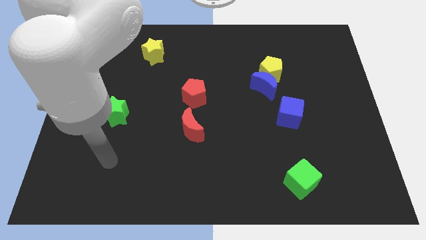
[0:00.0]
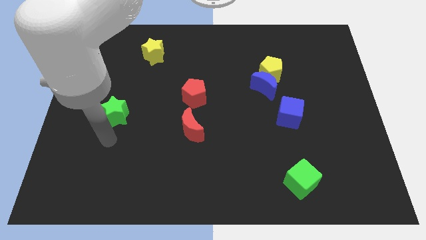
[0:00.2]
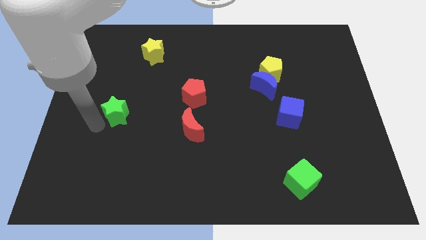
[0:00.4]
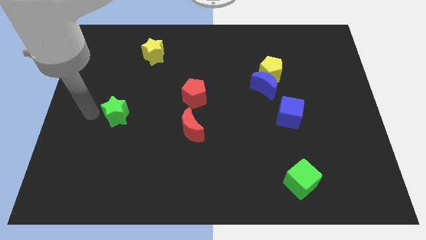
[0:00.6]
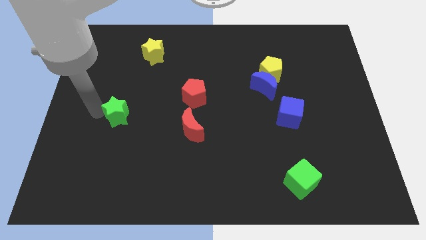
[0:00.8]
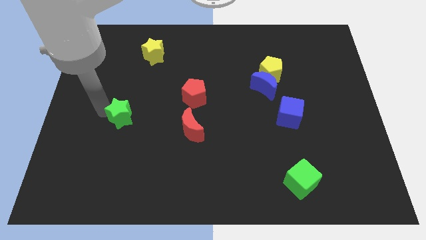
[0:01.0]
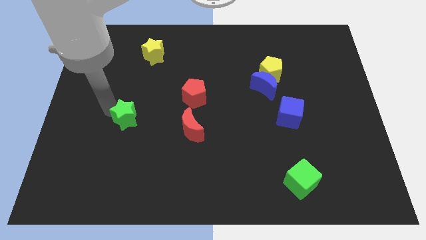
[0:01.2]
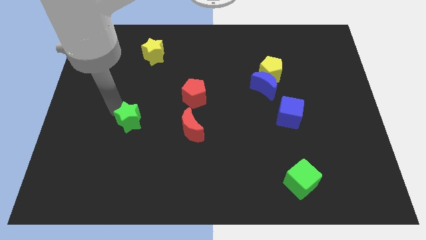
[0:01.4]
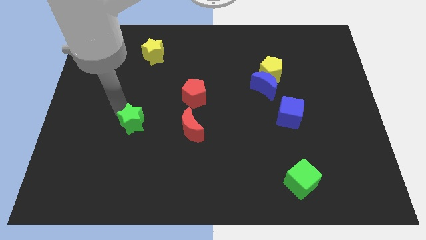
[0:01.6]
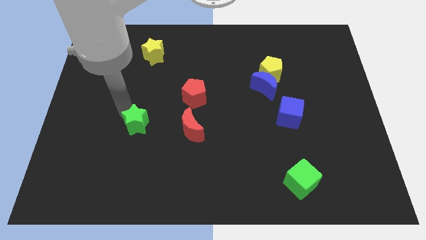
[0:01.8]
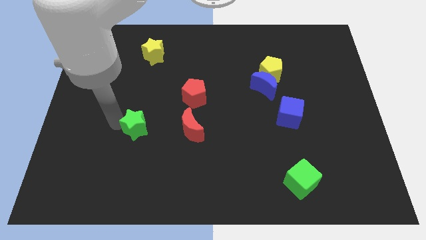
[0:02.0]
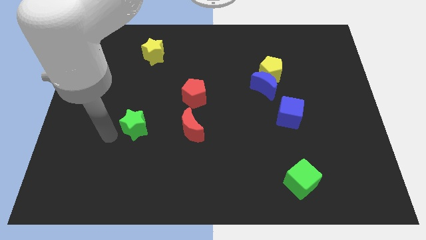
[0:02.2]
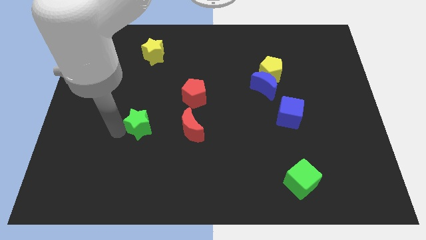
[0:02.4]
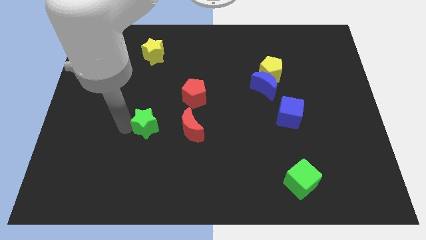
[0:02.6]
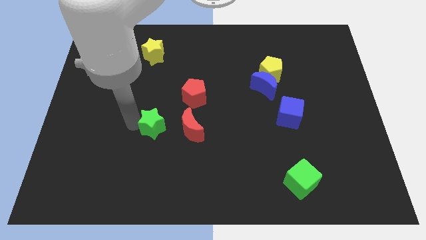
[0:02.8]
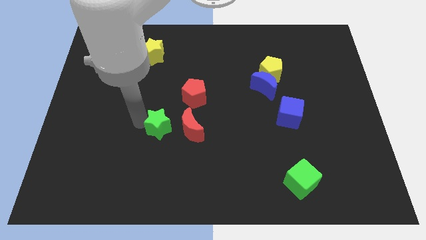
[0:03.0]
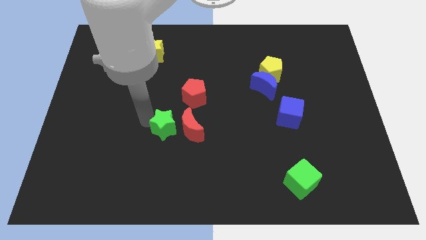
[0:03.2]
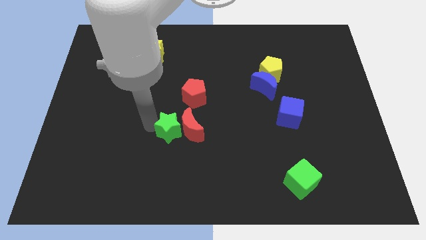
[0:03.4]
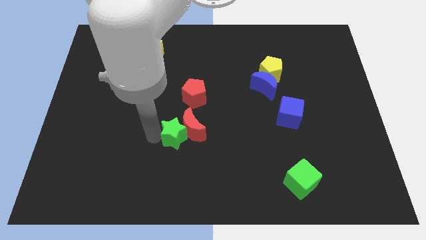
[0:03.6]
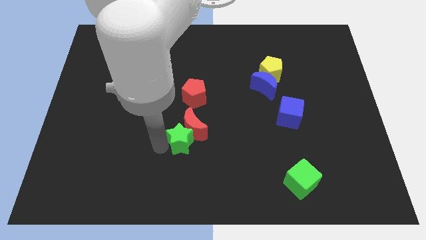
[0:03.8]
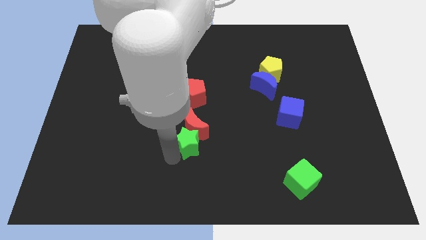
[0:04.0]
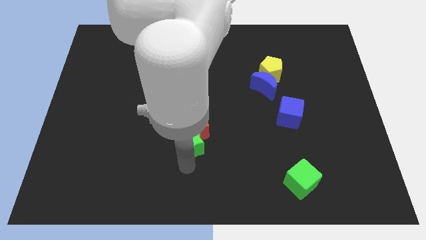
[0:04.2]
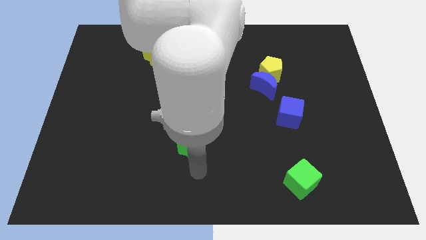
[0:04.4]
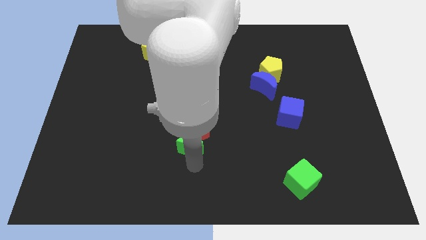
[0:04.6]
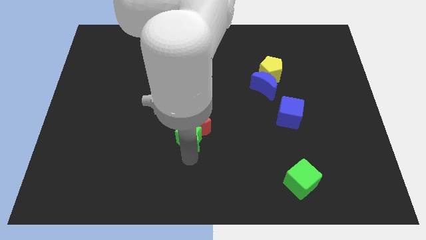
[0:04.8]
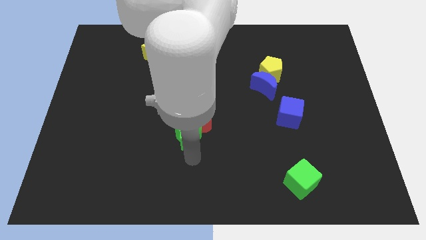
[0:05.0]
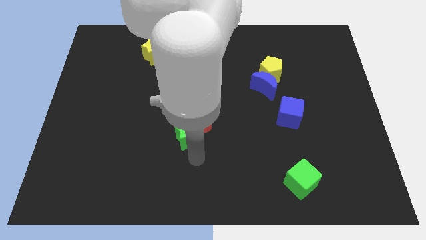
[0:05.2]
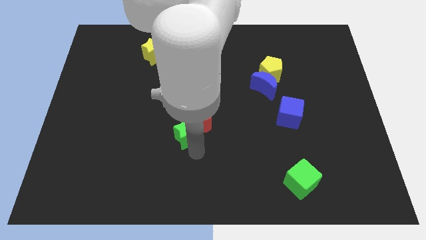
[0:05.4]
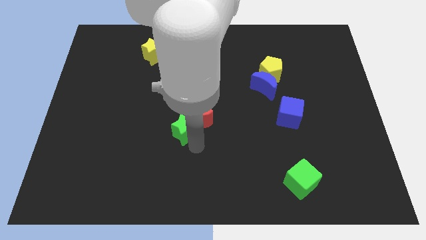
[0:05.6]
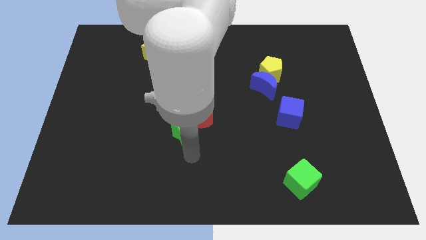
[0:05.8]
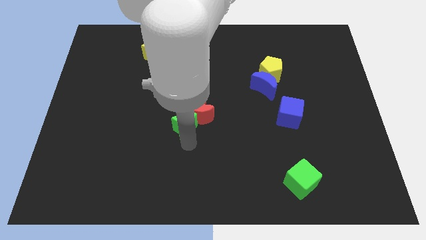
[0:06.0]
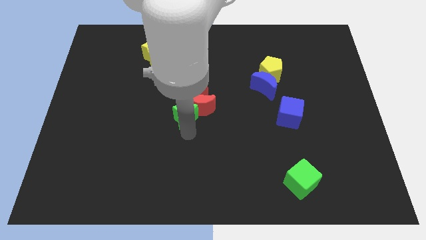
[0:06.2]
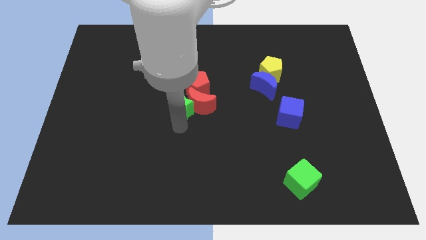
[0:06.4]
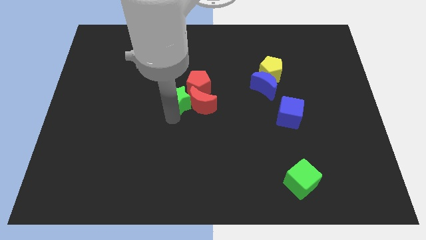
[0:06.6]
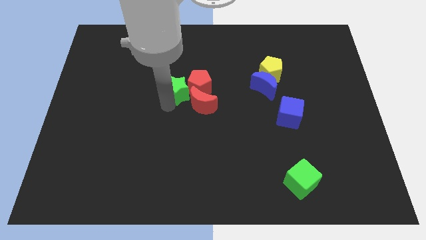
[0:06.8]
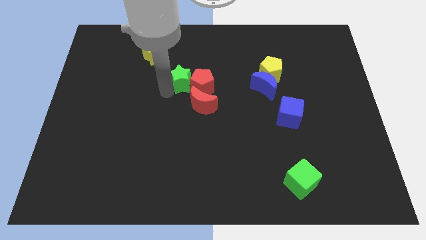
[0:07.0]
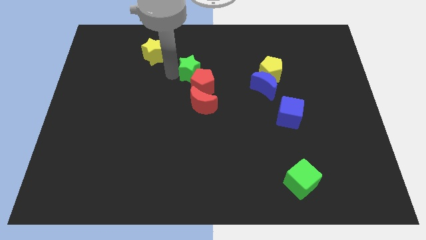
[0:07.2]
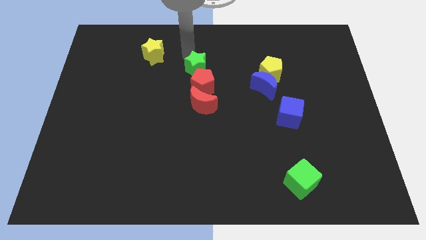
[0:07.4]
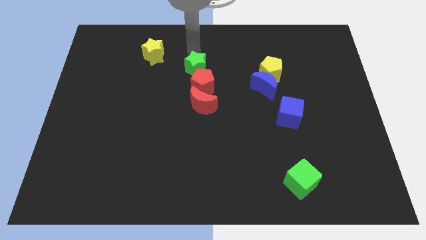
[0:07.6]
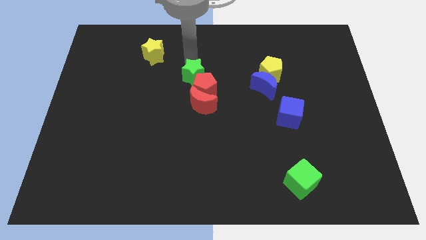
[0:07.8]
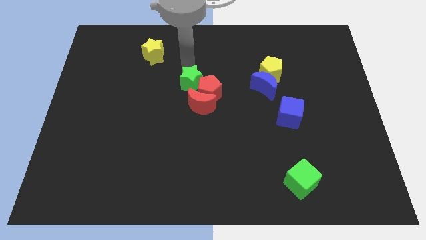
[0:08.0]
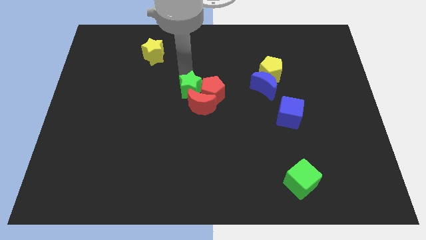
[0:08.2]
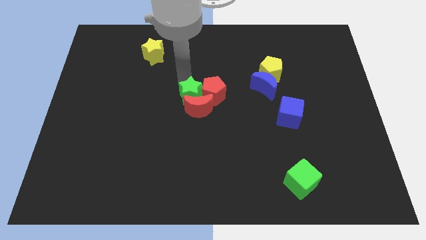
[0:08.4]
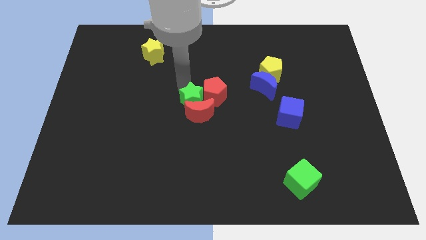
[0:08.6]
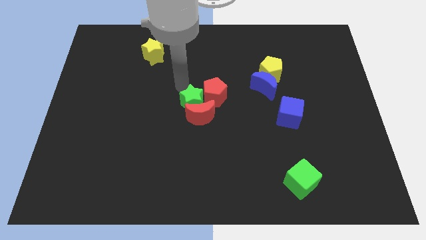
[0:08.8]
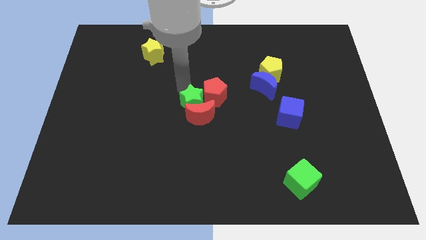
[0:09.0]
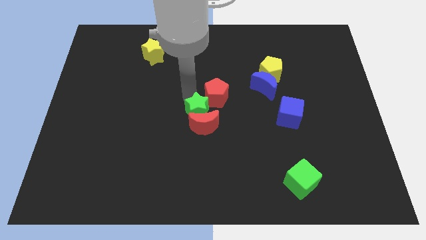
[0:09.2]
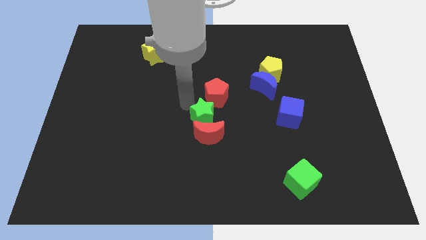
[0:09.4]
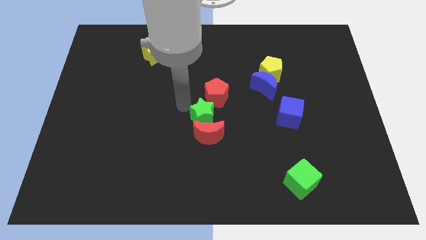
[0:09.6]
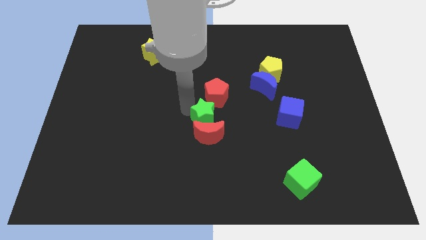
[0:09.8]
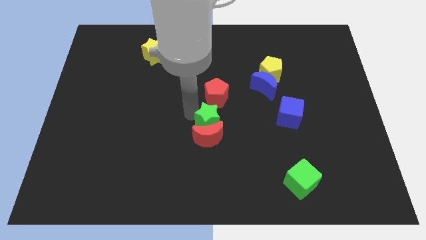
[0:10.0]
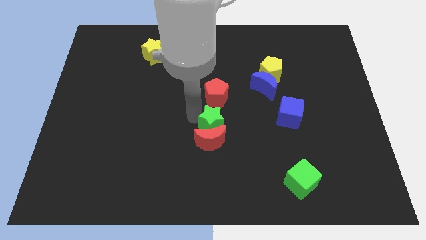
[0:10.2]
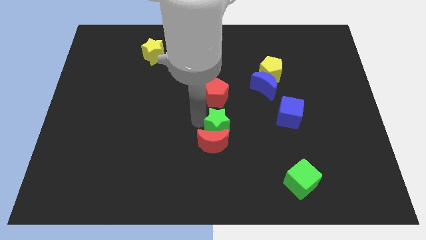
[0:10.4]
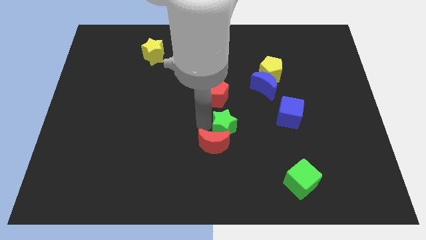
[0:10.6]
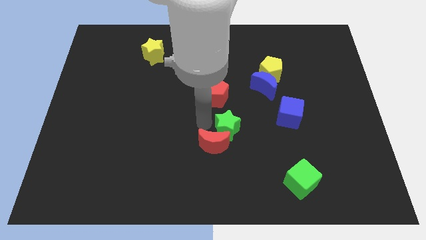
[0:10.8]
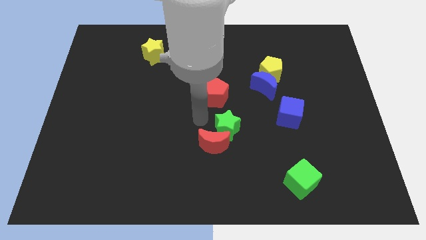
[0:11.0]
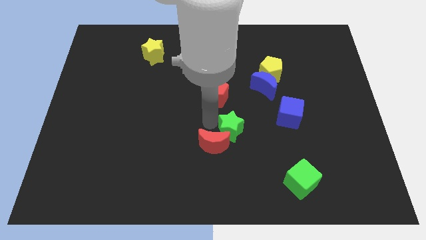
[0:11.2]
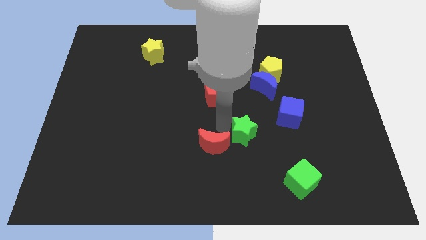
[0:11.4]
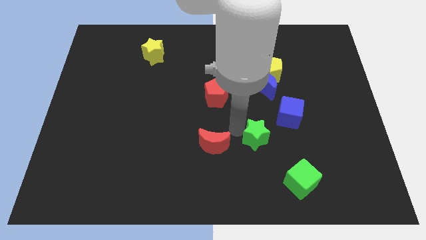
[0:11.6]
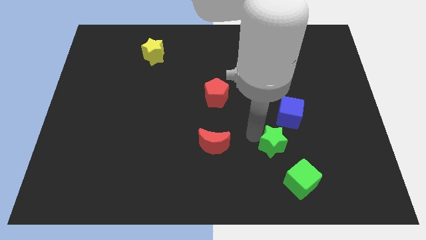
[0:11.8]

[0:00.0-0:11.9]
put the green star to the bottom of the blue cube

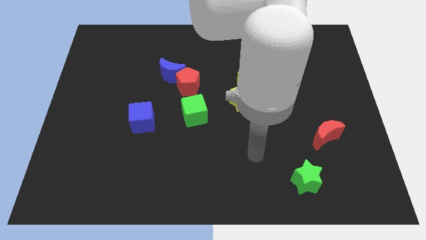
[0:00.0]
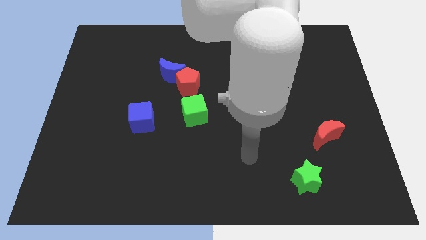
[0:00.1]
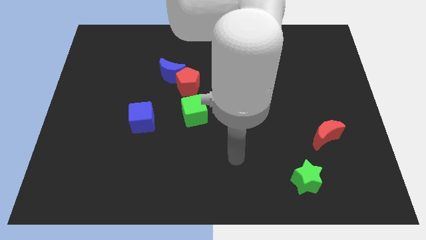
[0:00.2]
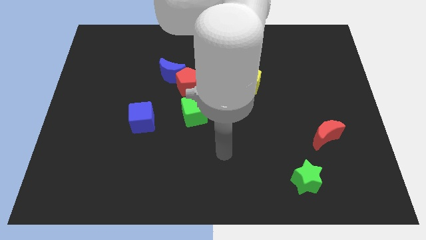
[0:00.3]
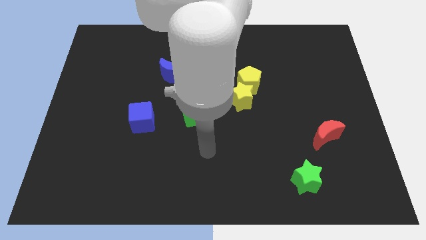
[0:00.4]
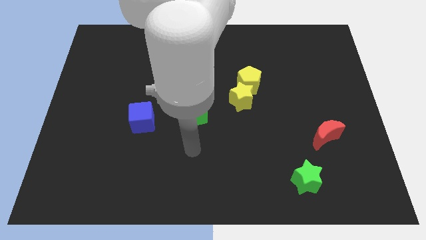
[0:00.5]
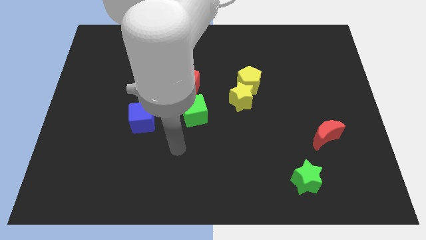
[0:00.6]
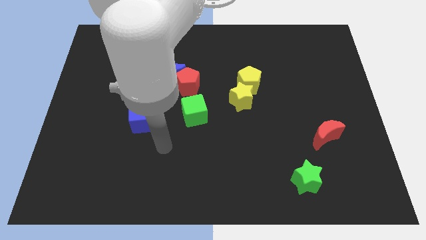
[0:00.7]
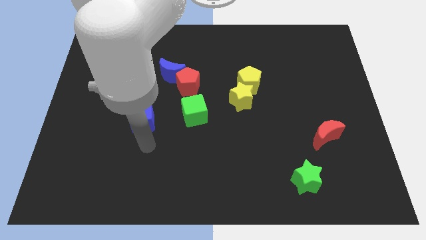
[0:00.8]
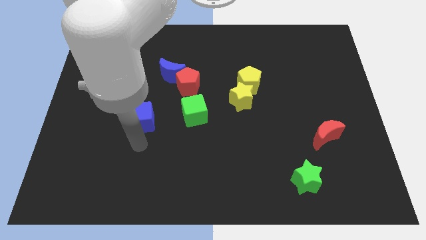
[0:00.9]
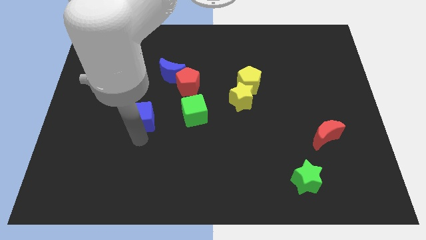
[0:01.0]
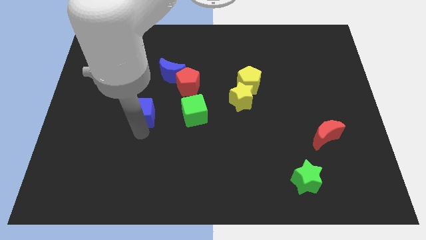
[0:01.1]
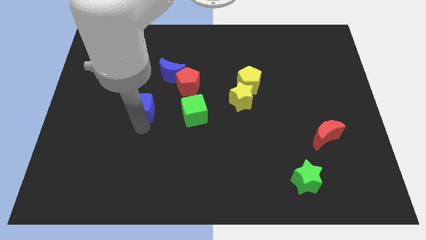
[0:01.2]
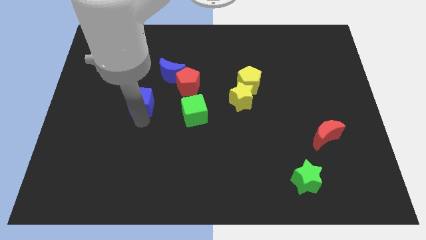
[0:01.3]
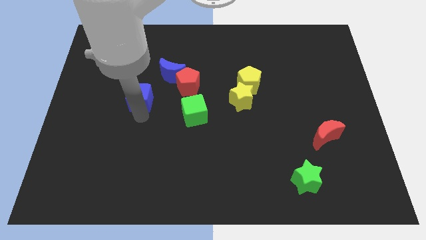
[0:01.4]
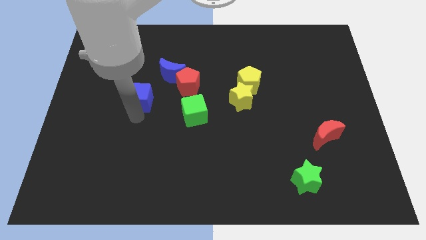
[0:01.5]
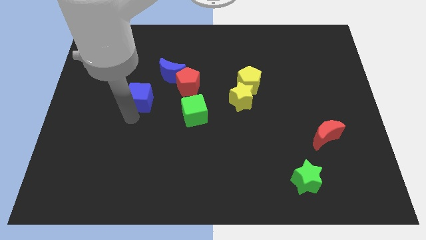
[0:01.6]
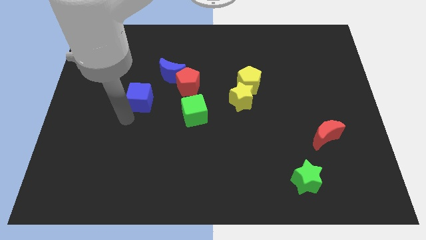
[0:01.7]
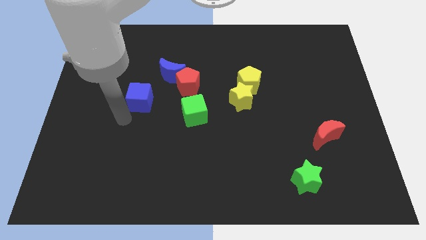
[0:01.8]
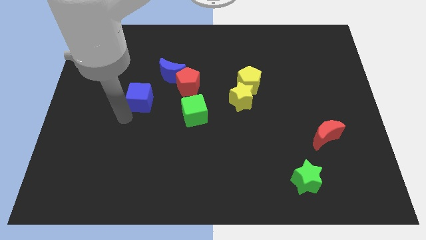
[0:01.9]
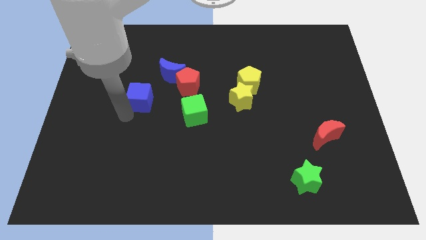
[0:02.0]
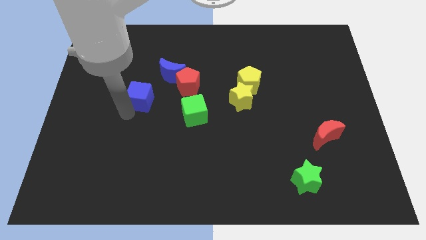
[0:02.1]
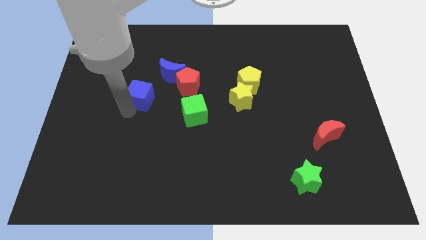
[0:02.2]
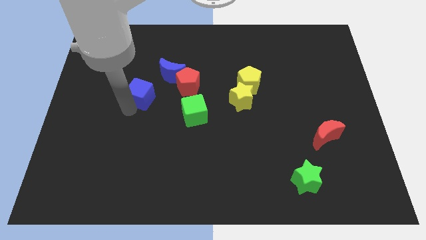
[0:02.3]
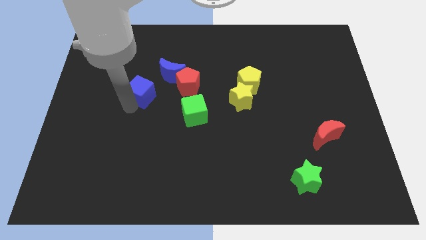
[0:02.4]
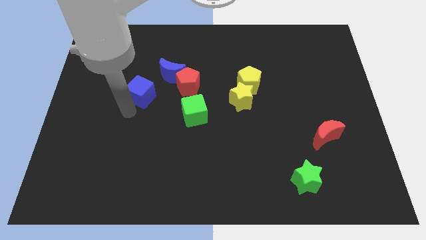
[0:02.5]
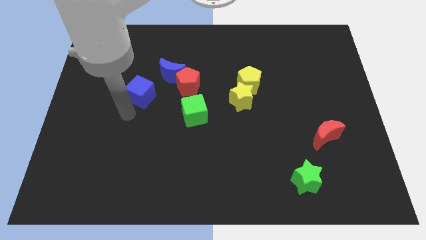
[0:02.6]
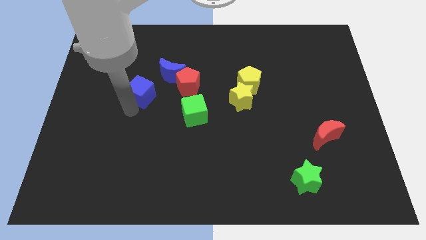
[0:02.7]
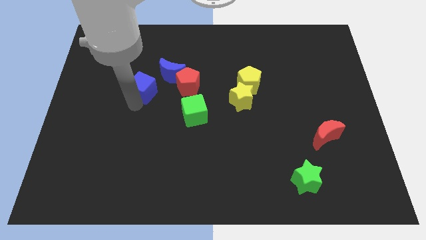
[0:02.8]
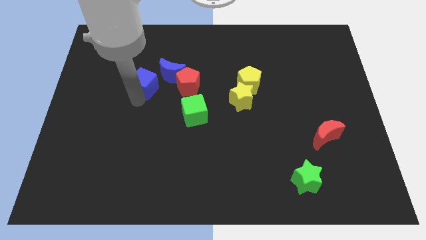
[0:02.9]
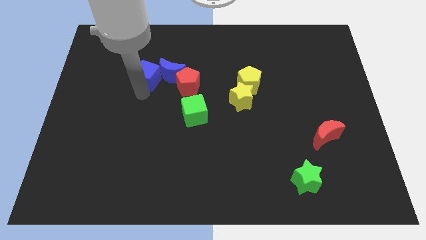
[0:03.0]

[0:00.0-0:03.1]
move the blue cube to the top left of the blue moon
